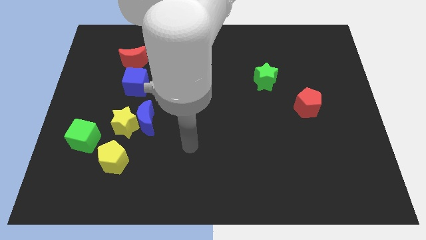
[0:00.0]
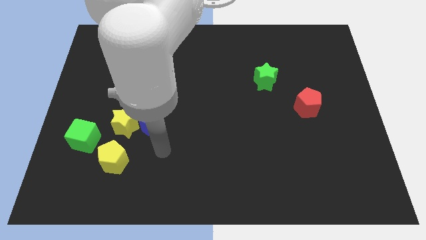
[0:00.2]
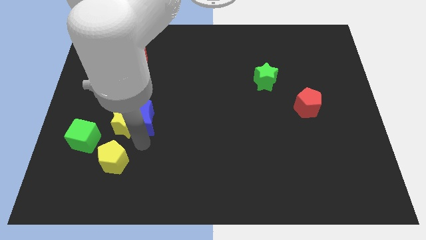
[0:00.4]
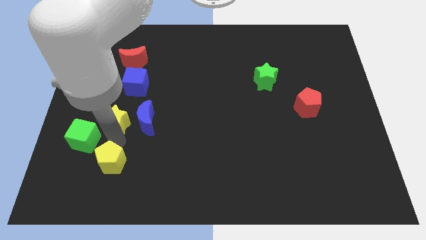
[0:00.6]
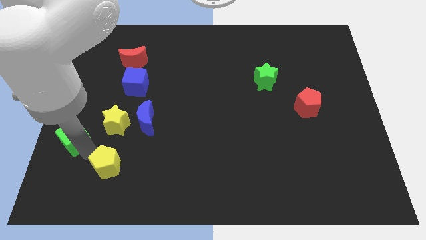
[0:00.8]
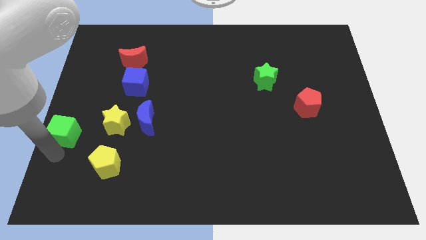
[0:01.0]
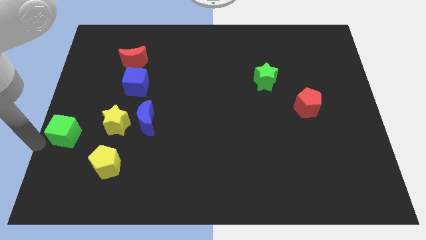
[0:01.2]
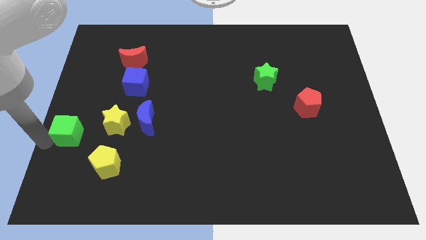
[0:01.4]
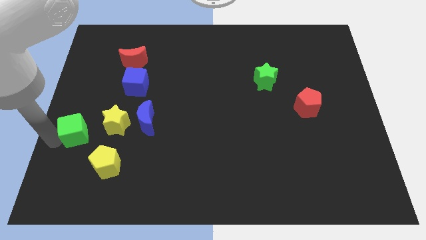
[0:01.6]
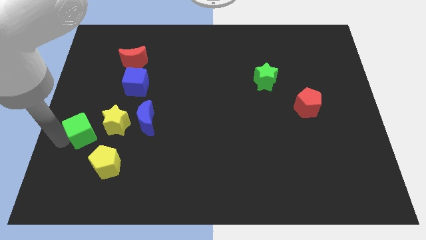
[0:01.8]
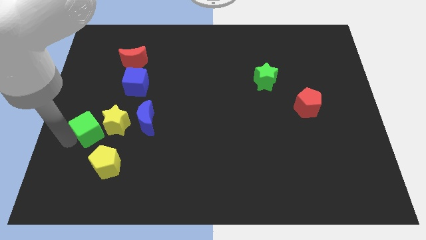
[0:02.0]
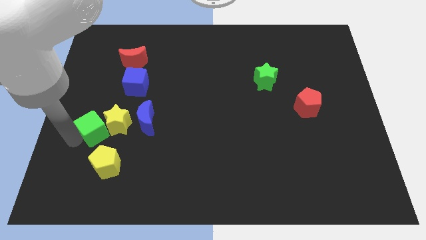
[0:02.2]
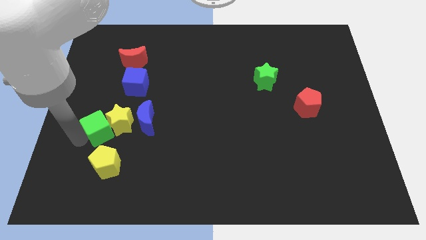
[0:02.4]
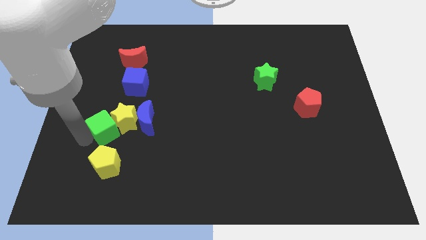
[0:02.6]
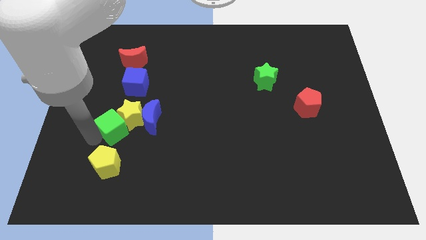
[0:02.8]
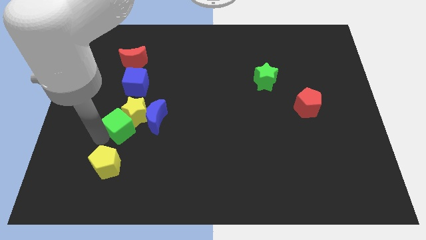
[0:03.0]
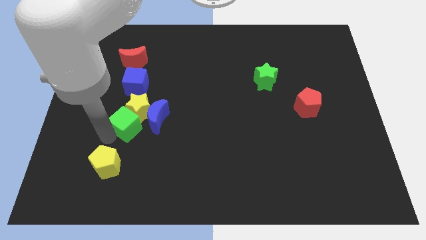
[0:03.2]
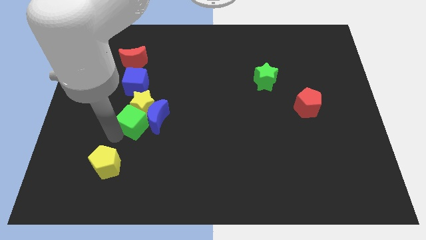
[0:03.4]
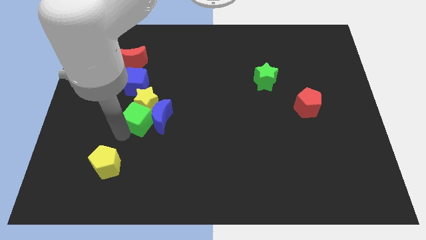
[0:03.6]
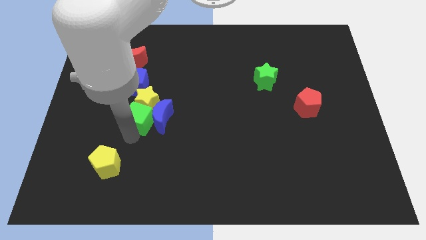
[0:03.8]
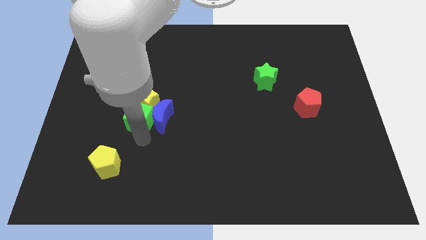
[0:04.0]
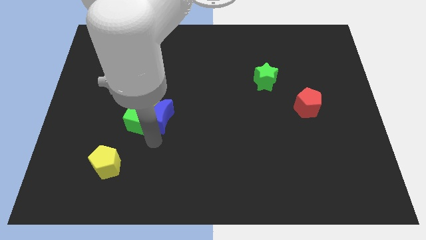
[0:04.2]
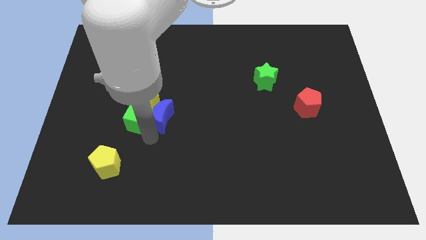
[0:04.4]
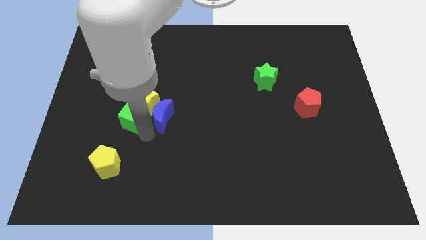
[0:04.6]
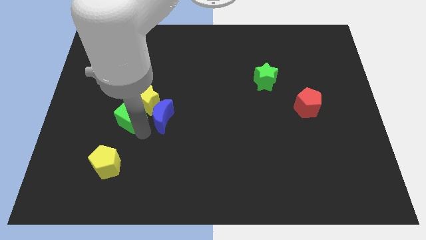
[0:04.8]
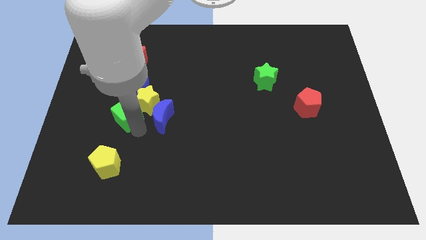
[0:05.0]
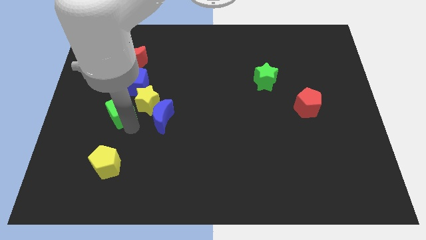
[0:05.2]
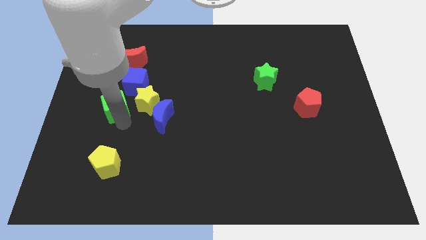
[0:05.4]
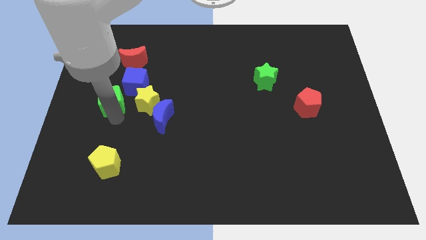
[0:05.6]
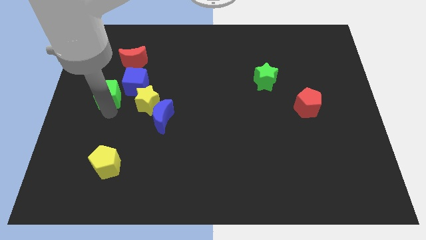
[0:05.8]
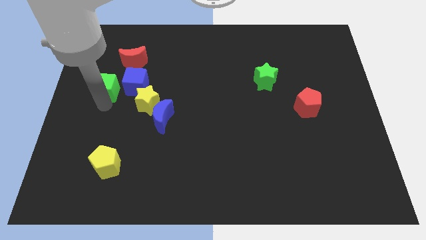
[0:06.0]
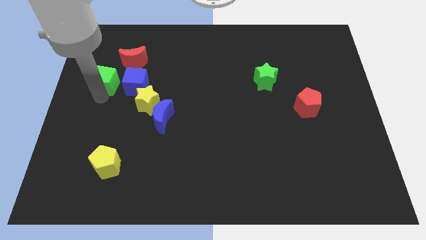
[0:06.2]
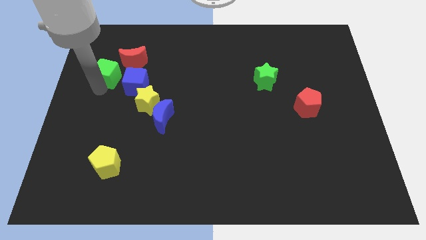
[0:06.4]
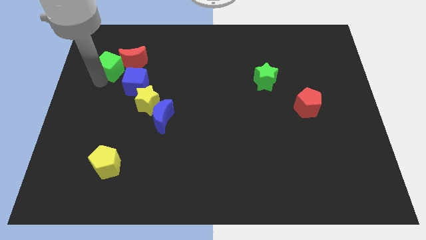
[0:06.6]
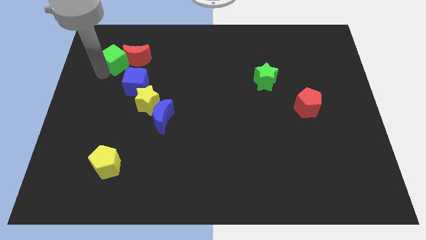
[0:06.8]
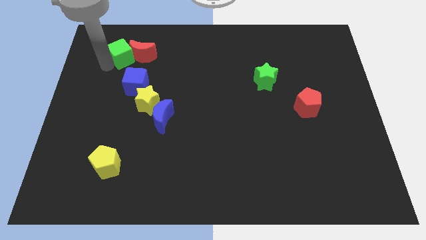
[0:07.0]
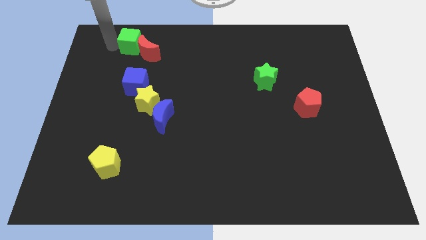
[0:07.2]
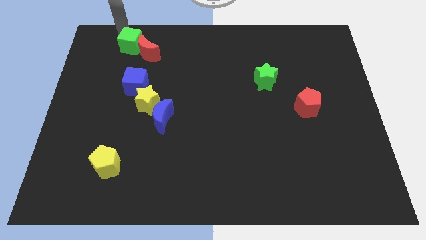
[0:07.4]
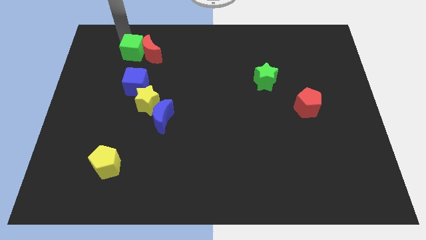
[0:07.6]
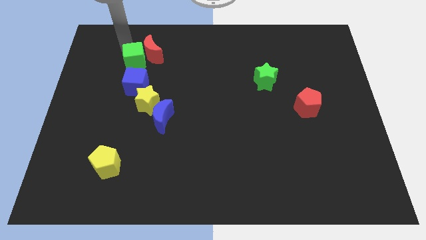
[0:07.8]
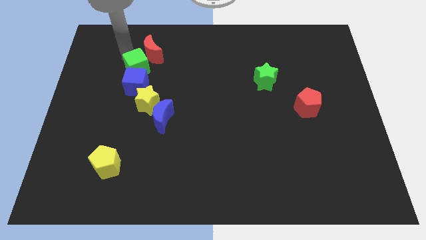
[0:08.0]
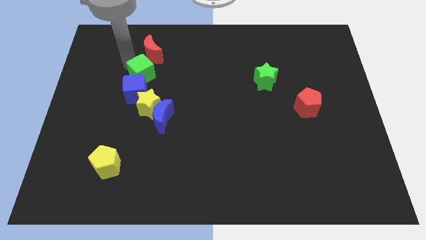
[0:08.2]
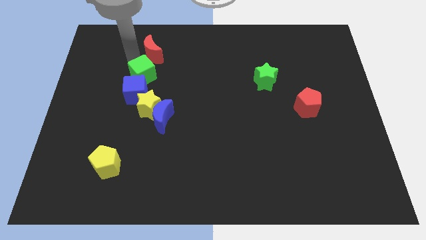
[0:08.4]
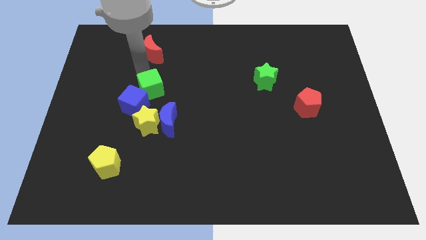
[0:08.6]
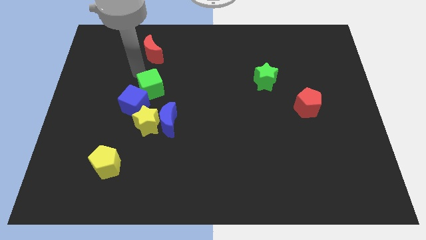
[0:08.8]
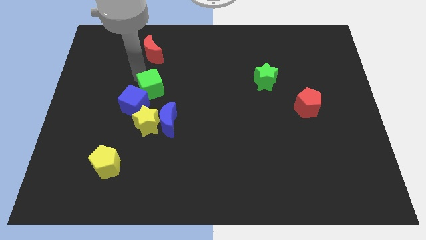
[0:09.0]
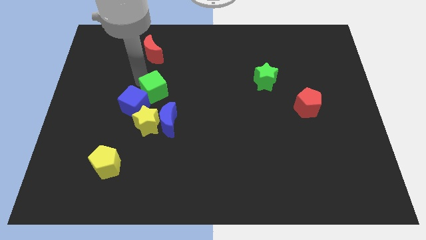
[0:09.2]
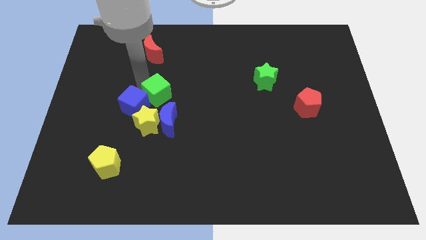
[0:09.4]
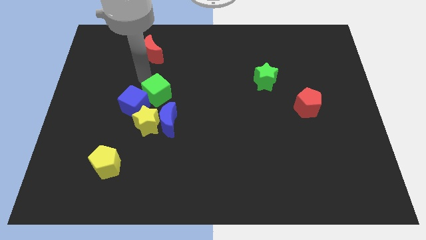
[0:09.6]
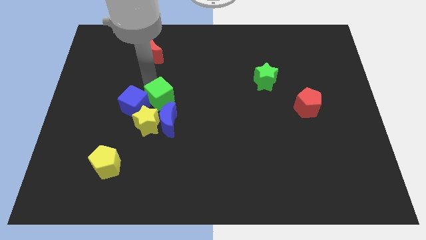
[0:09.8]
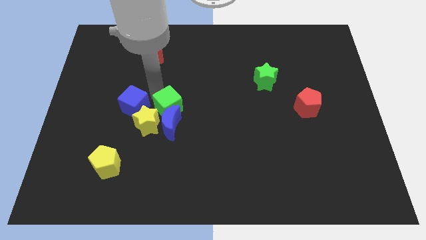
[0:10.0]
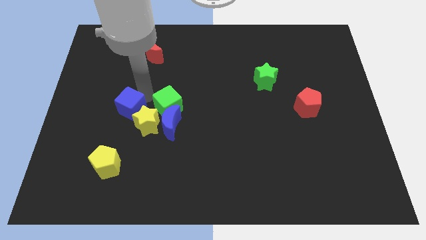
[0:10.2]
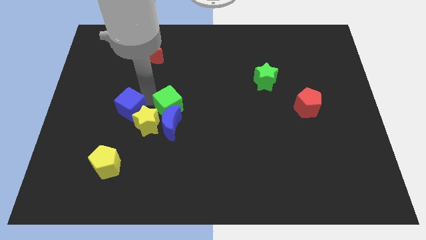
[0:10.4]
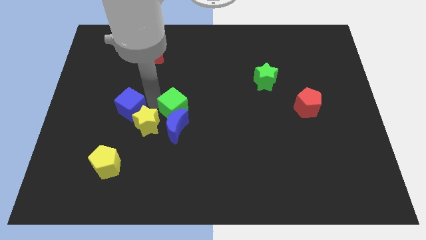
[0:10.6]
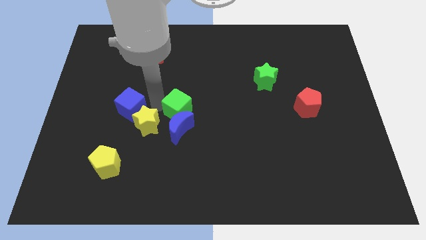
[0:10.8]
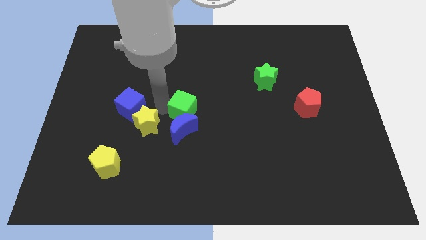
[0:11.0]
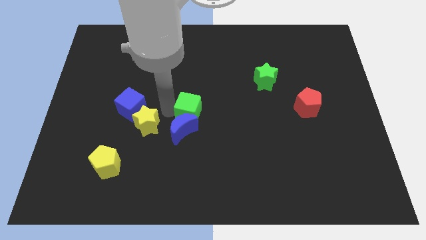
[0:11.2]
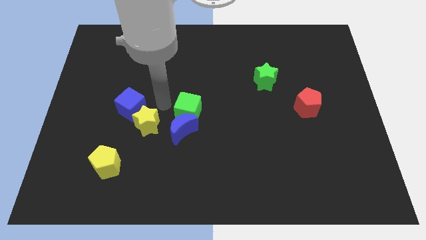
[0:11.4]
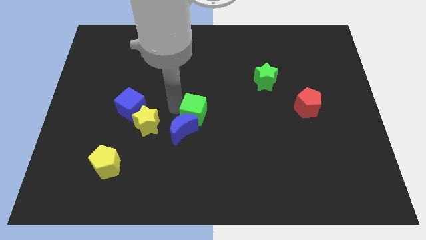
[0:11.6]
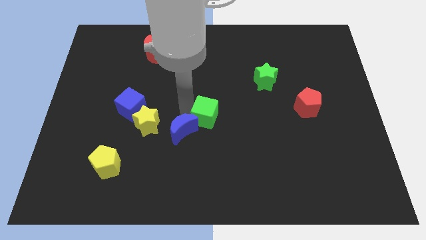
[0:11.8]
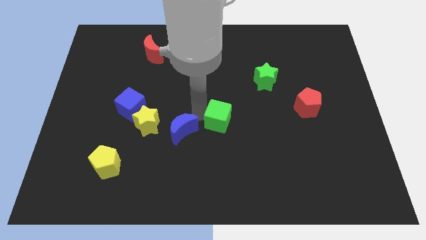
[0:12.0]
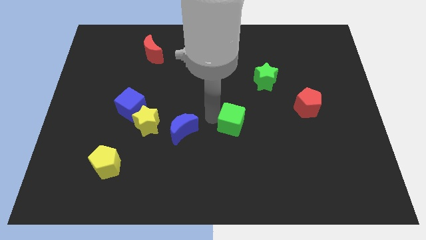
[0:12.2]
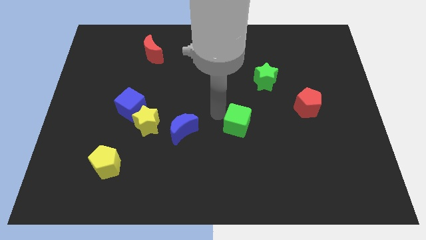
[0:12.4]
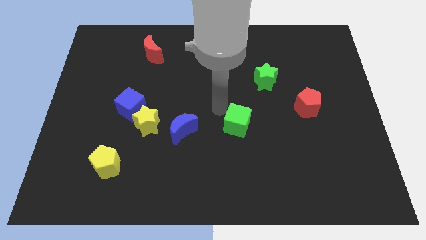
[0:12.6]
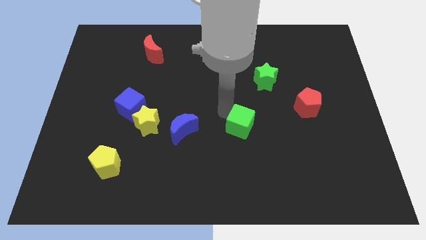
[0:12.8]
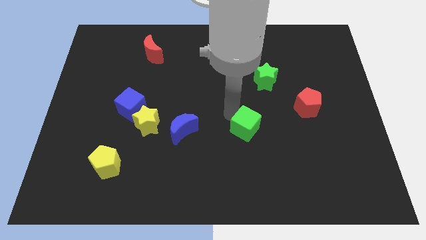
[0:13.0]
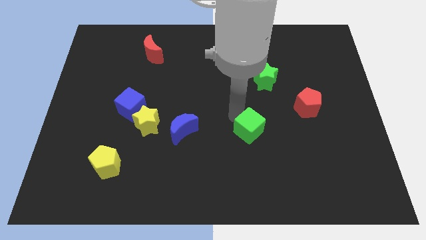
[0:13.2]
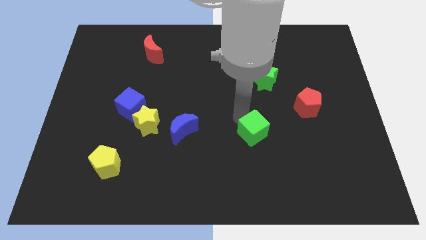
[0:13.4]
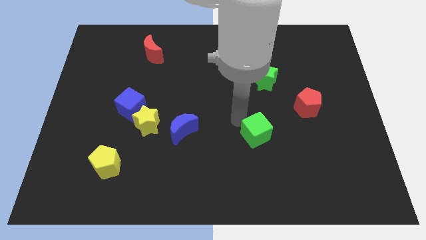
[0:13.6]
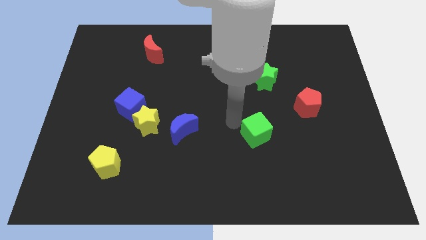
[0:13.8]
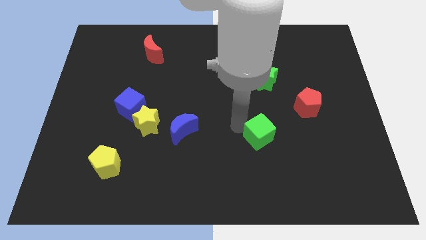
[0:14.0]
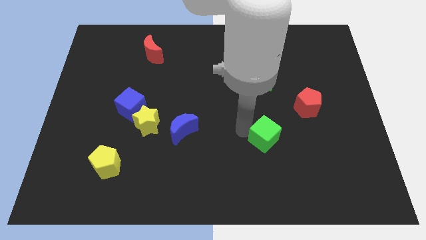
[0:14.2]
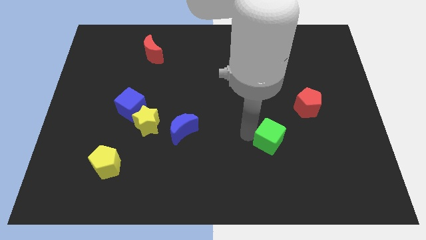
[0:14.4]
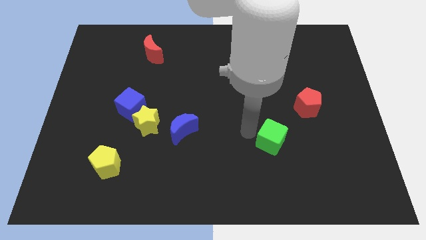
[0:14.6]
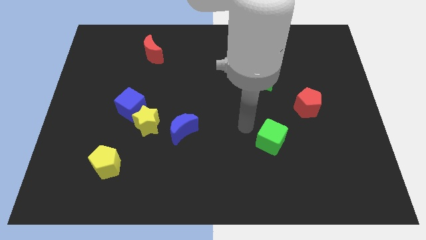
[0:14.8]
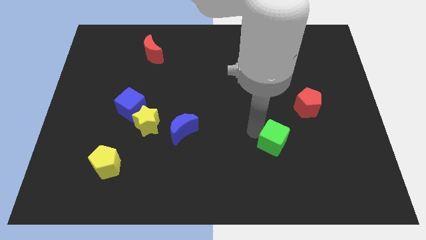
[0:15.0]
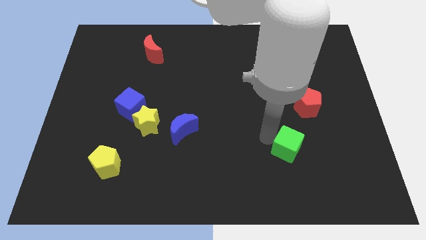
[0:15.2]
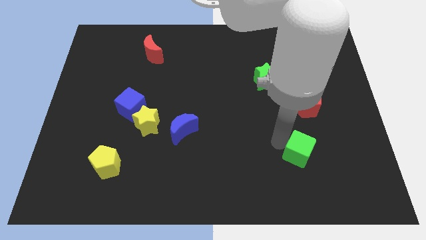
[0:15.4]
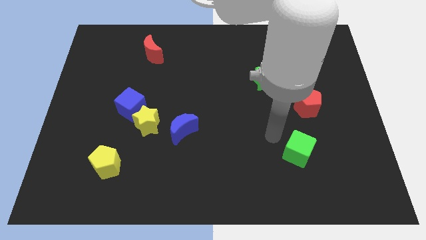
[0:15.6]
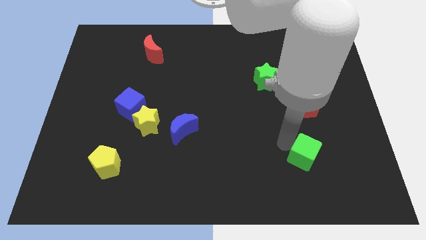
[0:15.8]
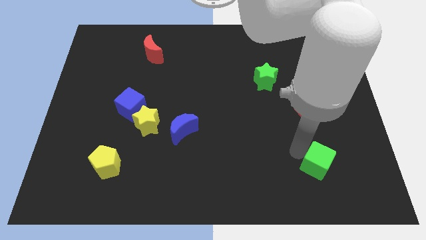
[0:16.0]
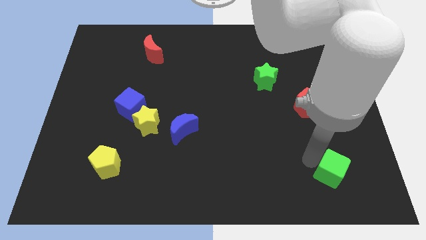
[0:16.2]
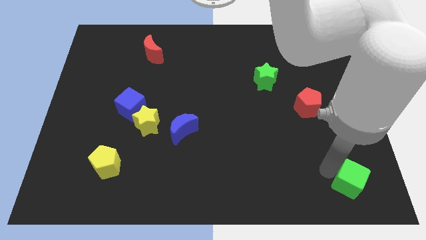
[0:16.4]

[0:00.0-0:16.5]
push the green cube to the bottom right corner

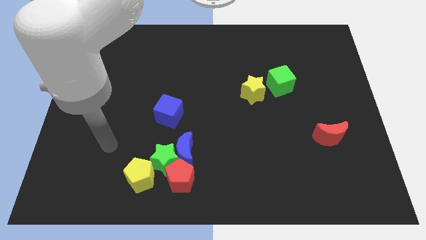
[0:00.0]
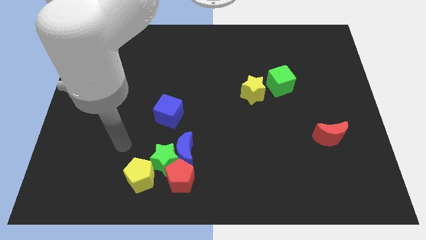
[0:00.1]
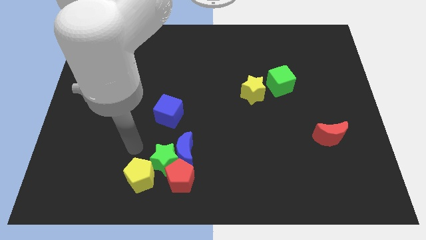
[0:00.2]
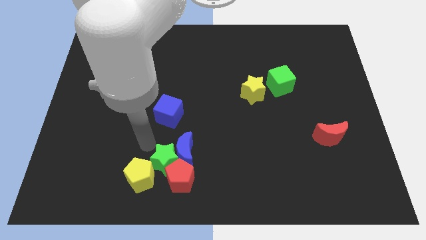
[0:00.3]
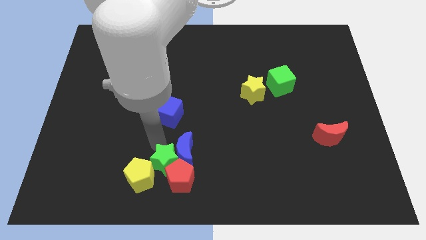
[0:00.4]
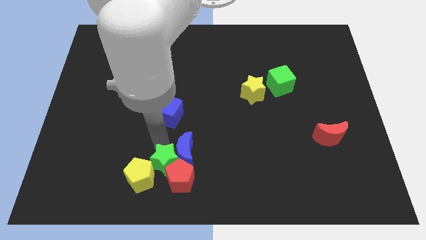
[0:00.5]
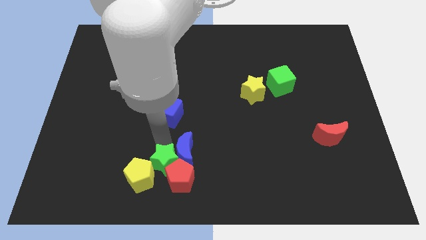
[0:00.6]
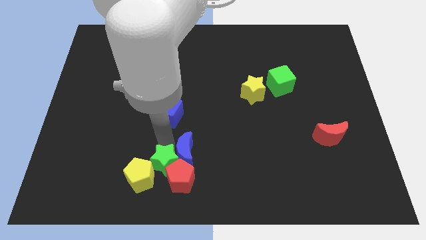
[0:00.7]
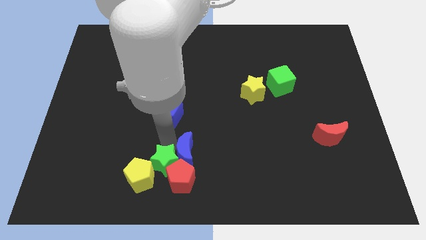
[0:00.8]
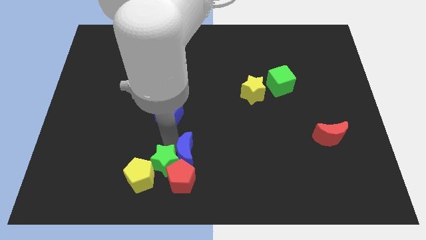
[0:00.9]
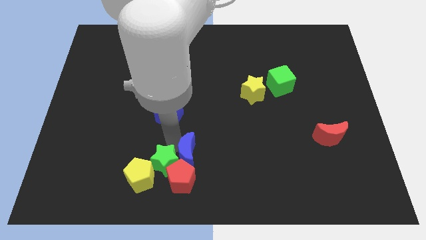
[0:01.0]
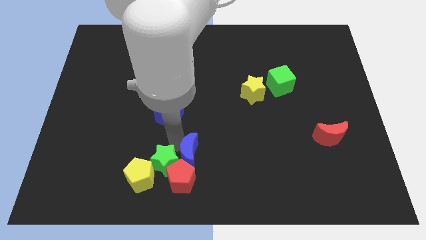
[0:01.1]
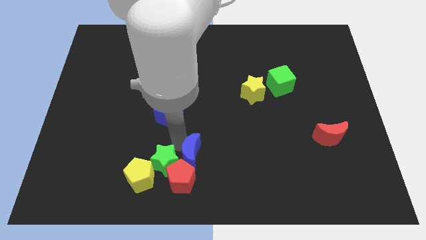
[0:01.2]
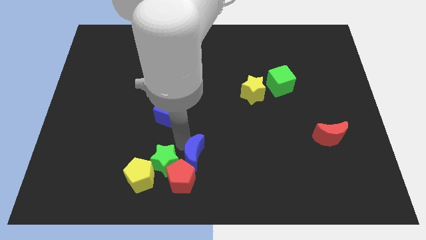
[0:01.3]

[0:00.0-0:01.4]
put the blue moon to the bottom
